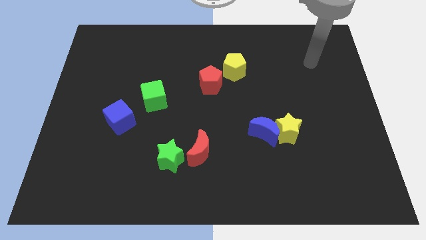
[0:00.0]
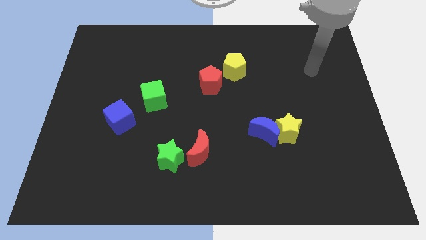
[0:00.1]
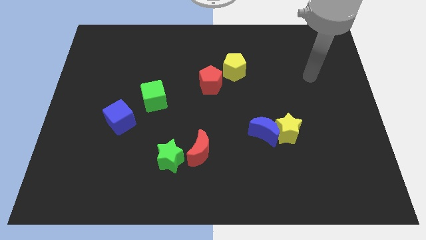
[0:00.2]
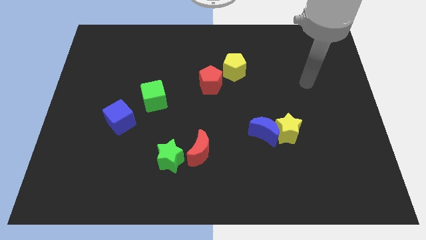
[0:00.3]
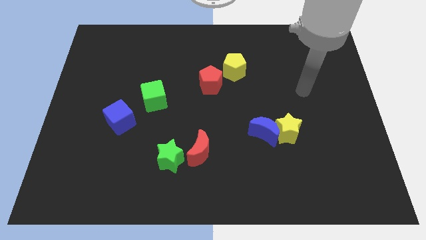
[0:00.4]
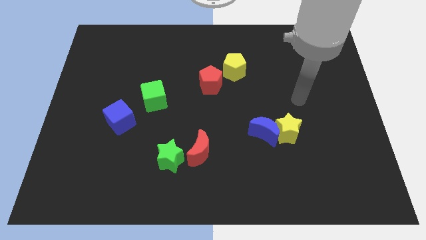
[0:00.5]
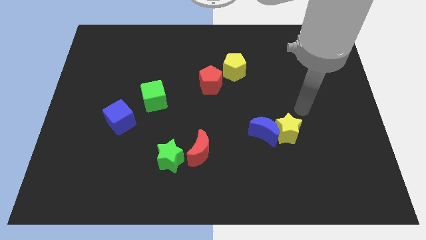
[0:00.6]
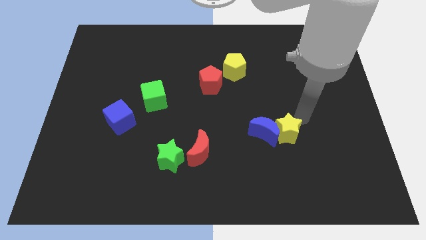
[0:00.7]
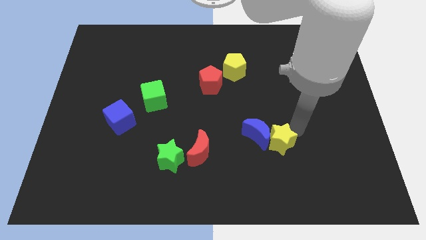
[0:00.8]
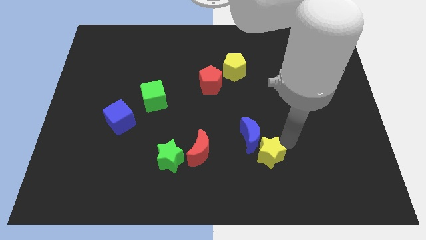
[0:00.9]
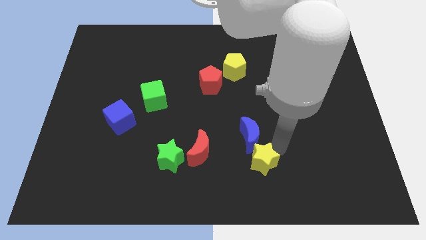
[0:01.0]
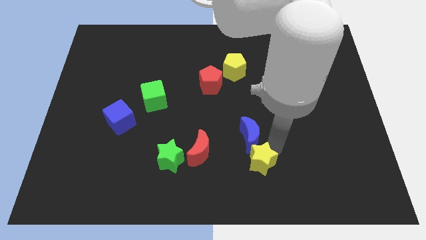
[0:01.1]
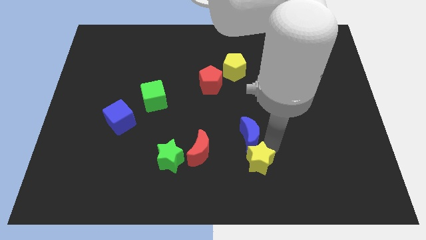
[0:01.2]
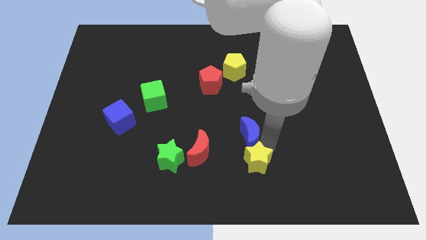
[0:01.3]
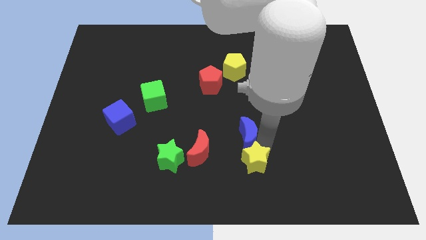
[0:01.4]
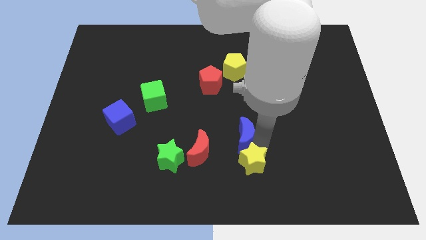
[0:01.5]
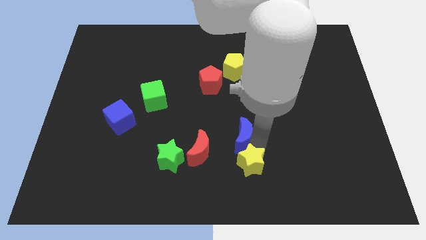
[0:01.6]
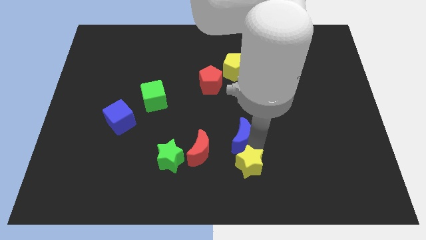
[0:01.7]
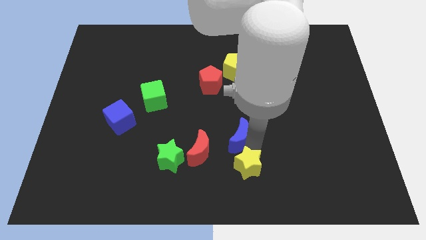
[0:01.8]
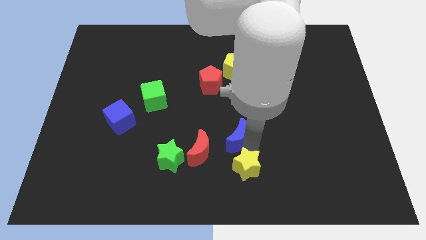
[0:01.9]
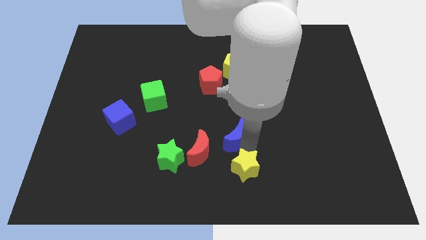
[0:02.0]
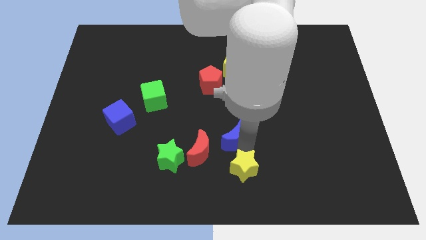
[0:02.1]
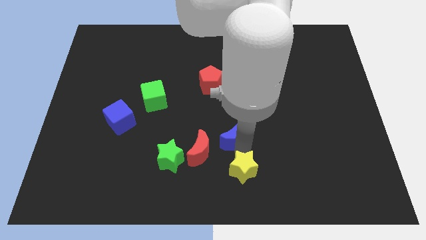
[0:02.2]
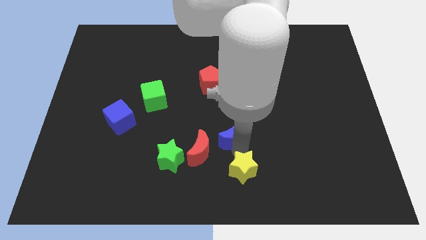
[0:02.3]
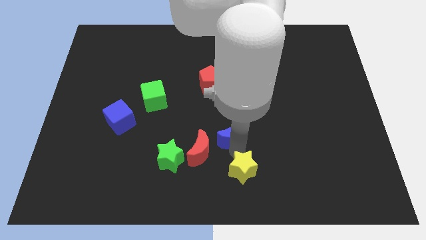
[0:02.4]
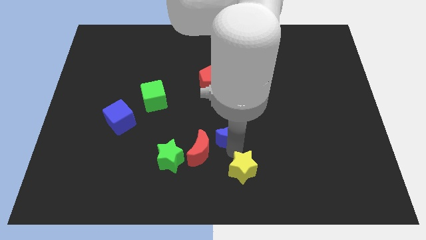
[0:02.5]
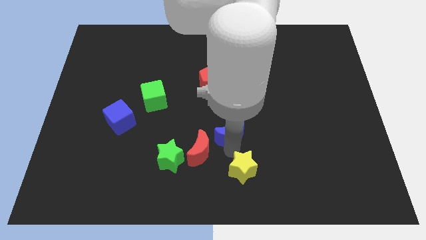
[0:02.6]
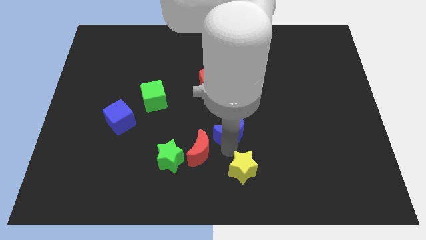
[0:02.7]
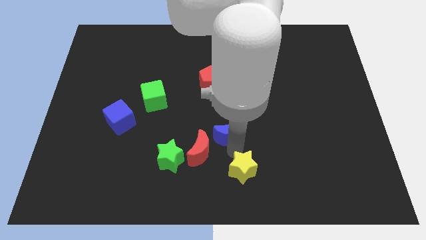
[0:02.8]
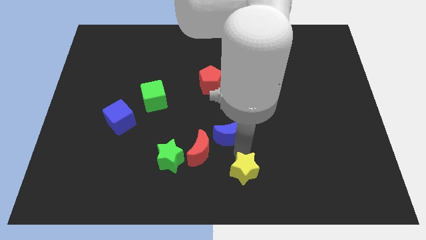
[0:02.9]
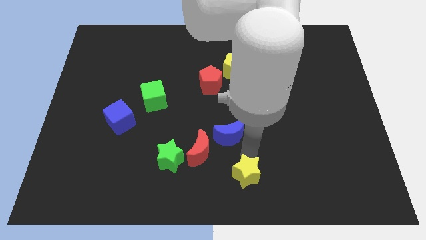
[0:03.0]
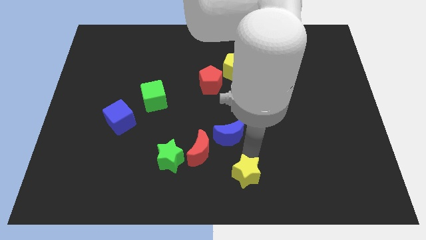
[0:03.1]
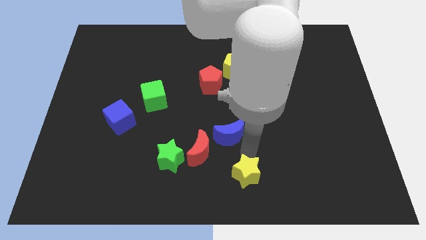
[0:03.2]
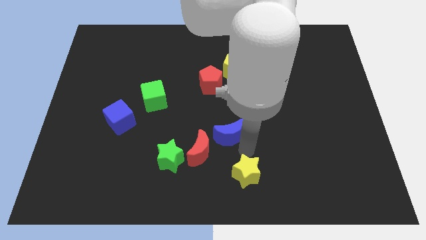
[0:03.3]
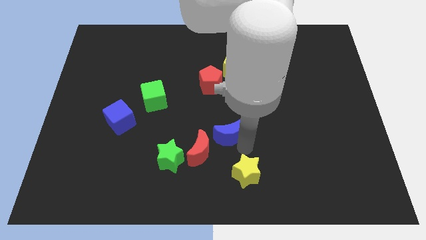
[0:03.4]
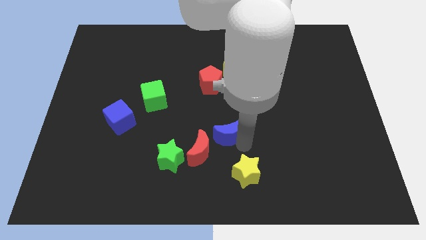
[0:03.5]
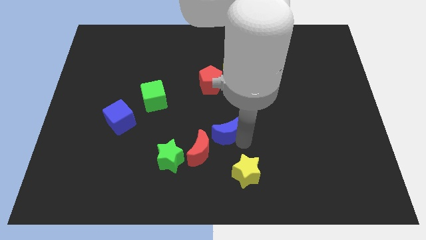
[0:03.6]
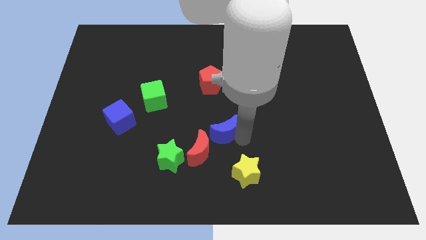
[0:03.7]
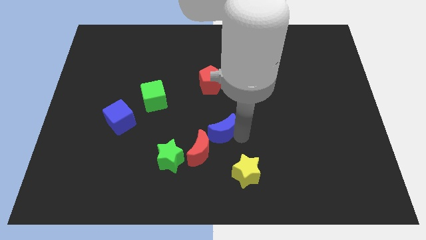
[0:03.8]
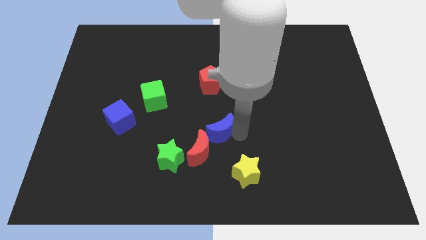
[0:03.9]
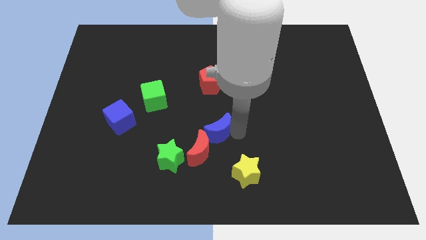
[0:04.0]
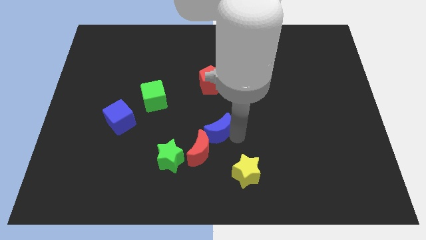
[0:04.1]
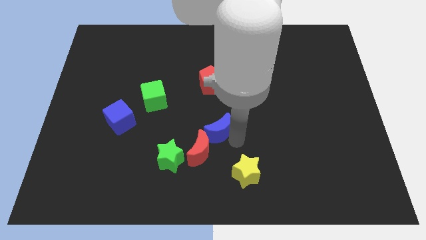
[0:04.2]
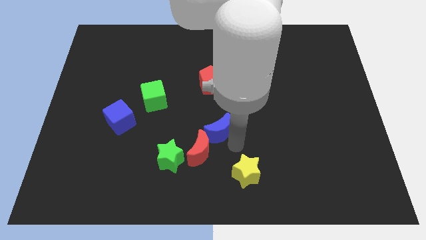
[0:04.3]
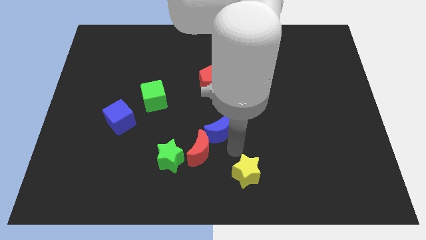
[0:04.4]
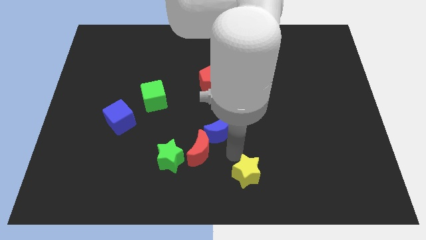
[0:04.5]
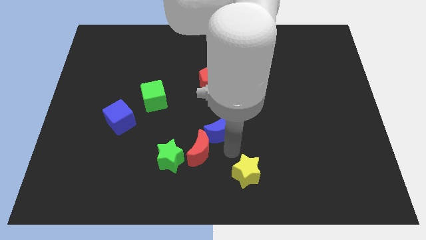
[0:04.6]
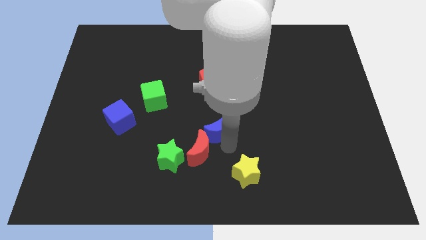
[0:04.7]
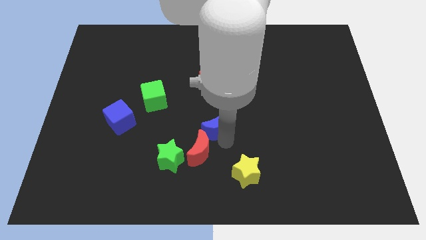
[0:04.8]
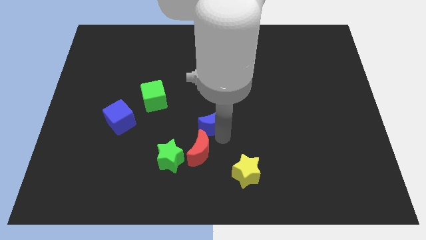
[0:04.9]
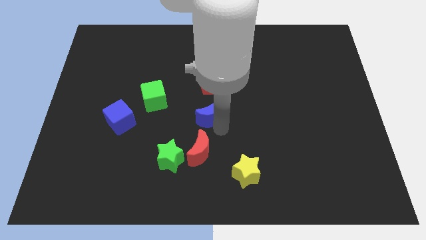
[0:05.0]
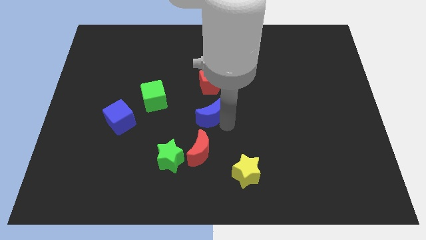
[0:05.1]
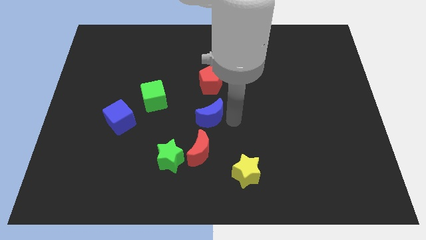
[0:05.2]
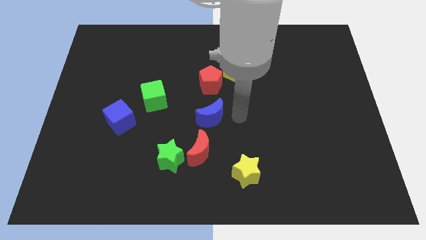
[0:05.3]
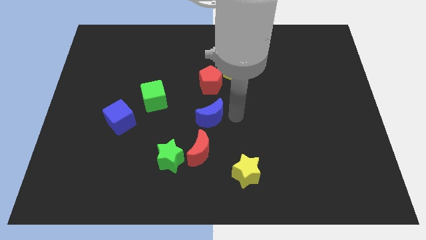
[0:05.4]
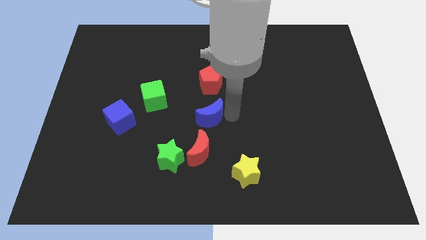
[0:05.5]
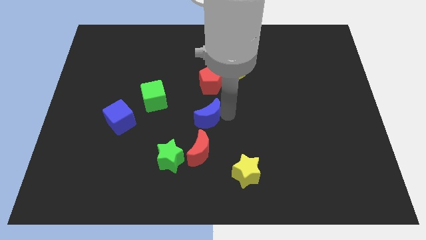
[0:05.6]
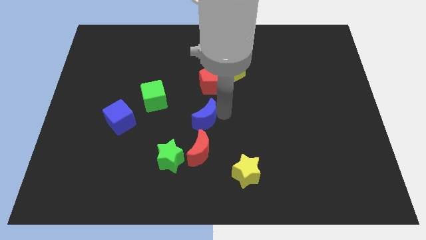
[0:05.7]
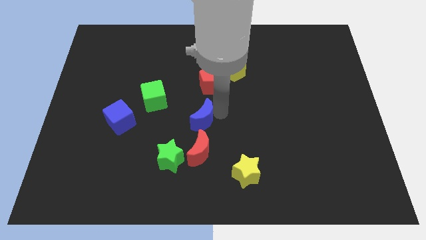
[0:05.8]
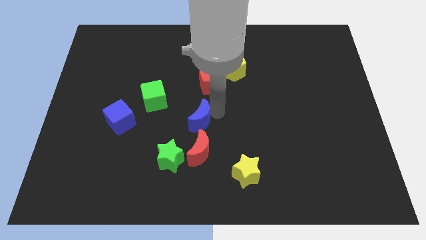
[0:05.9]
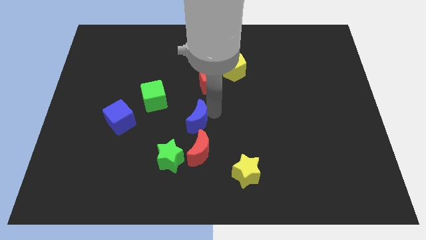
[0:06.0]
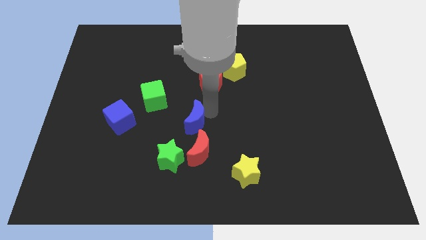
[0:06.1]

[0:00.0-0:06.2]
move the blue moon above the green star
